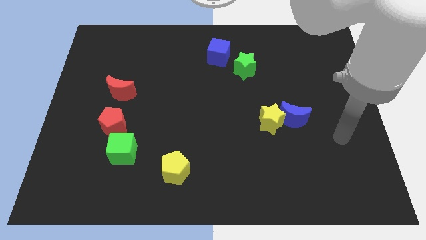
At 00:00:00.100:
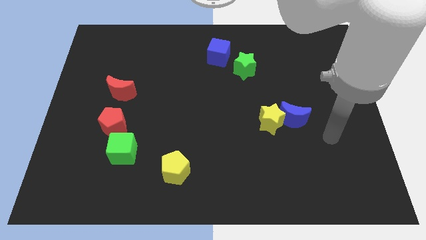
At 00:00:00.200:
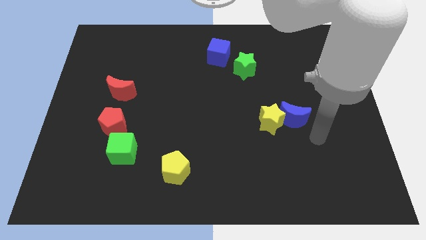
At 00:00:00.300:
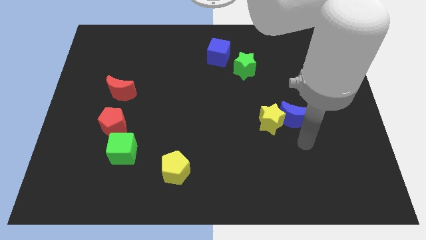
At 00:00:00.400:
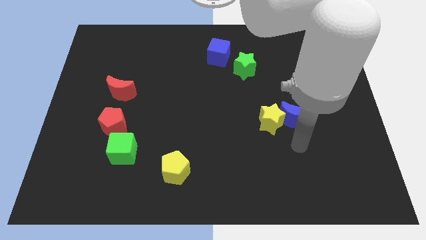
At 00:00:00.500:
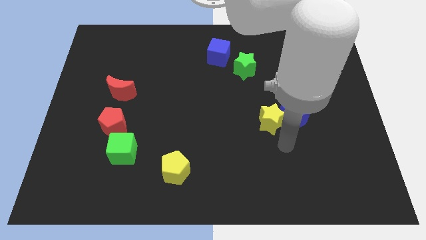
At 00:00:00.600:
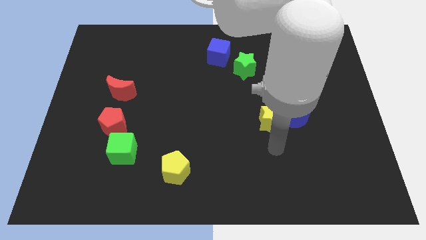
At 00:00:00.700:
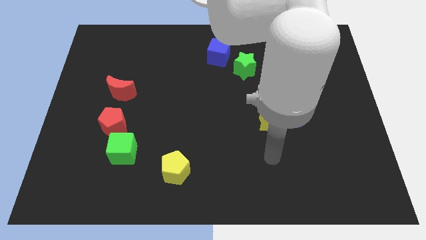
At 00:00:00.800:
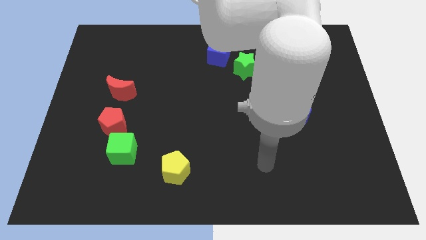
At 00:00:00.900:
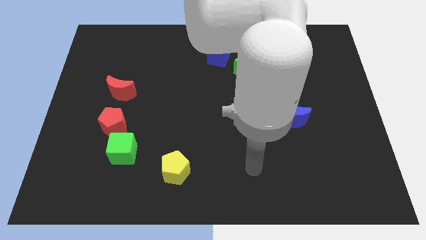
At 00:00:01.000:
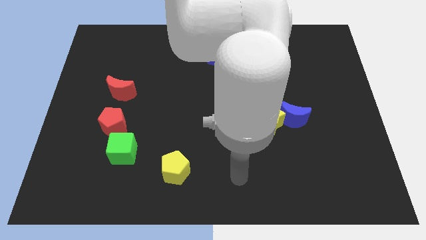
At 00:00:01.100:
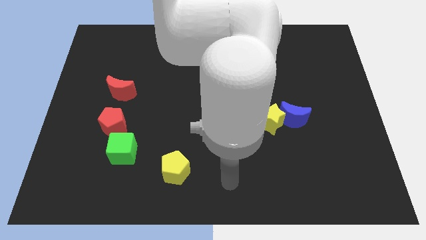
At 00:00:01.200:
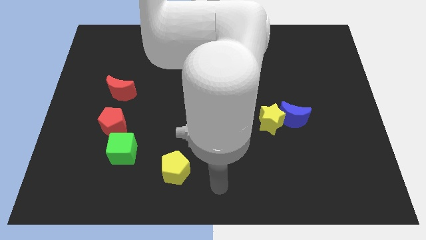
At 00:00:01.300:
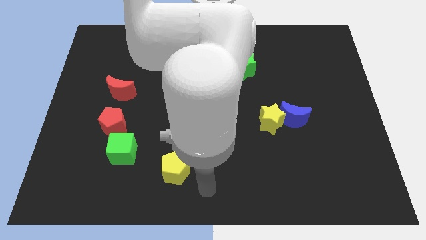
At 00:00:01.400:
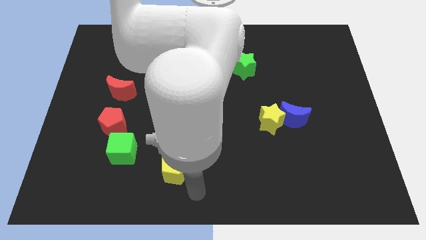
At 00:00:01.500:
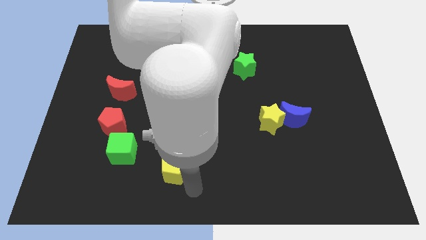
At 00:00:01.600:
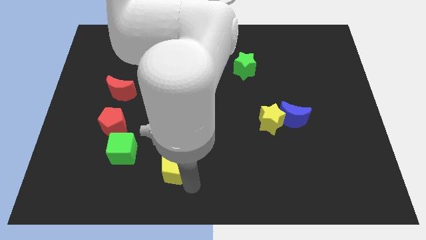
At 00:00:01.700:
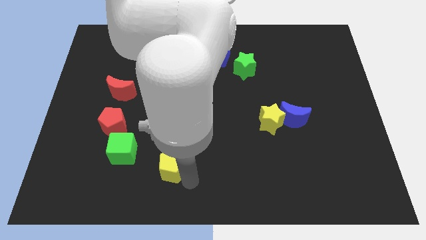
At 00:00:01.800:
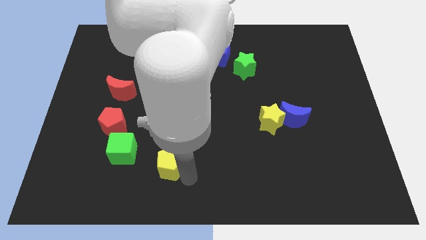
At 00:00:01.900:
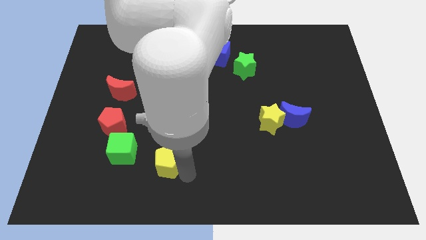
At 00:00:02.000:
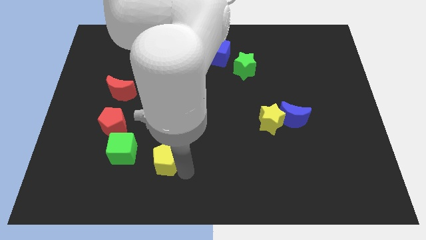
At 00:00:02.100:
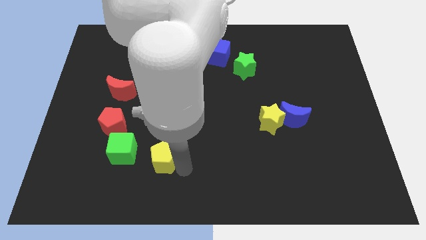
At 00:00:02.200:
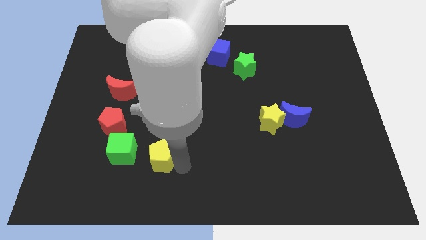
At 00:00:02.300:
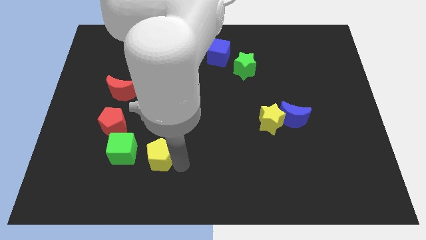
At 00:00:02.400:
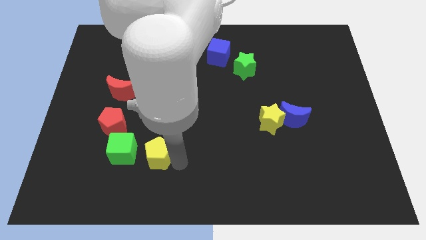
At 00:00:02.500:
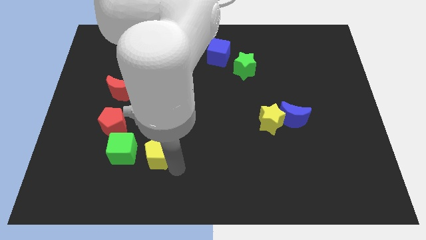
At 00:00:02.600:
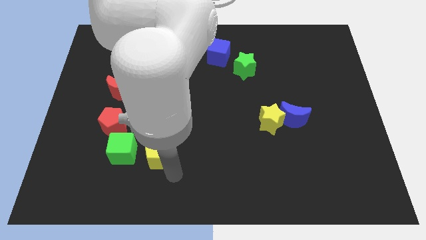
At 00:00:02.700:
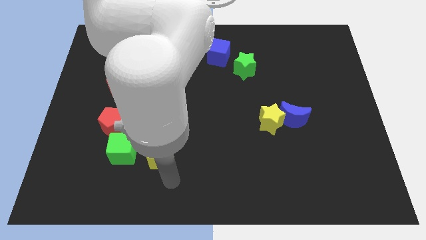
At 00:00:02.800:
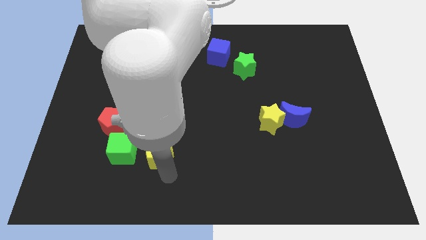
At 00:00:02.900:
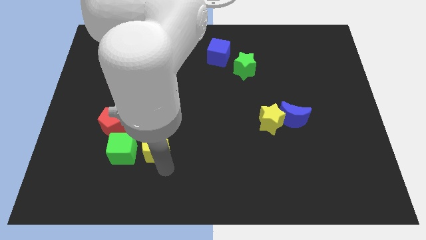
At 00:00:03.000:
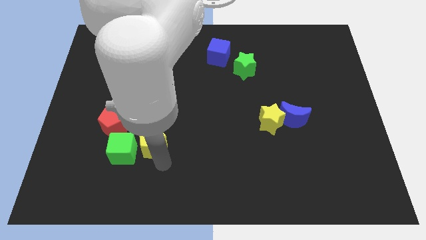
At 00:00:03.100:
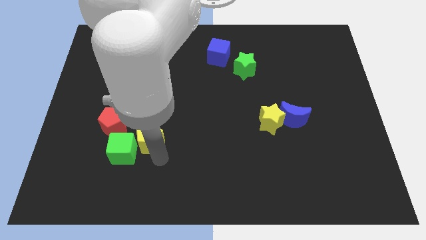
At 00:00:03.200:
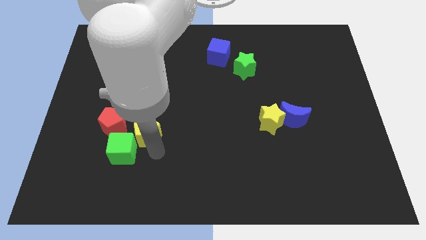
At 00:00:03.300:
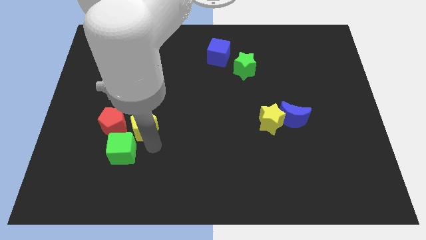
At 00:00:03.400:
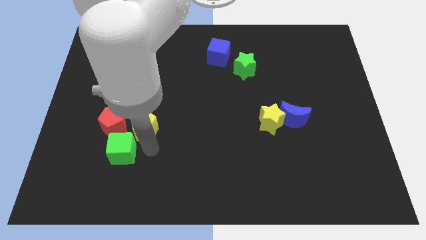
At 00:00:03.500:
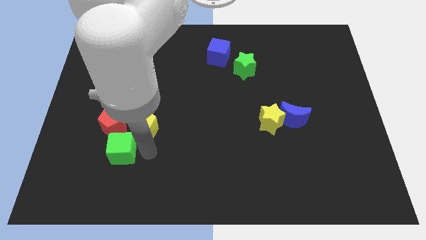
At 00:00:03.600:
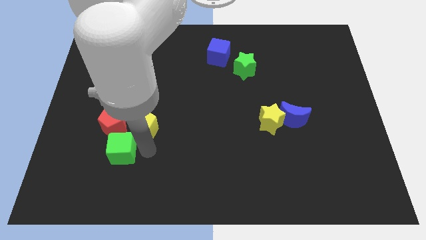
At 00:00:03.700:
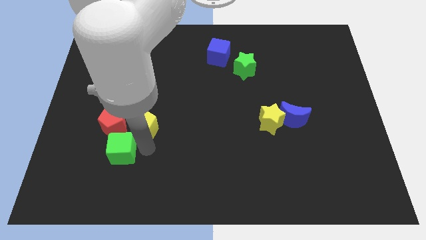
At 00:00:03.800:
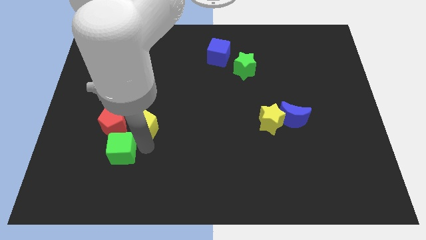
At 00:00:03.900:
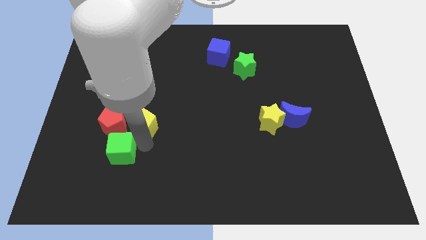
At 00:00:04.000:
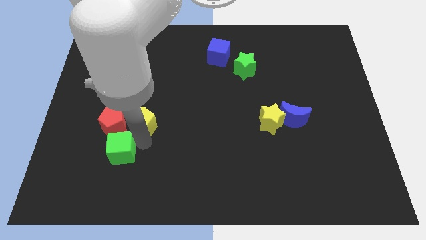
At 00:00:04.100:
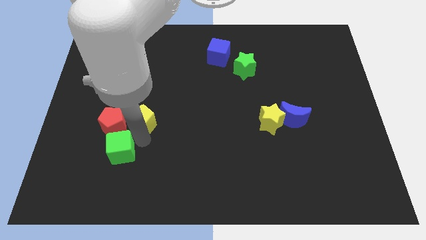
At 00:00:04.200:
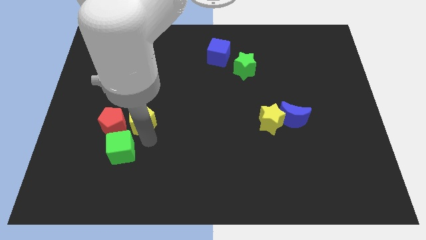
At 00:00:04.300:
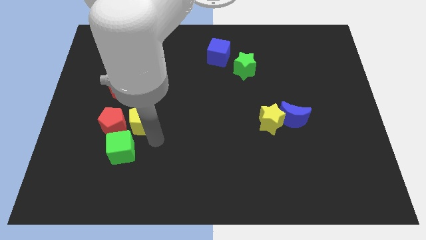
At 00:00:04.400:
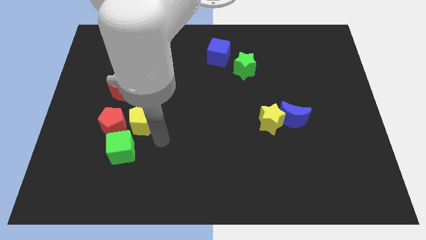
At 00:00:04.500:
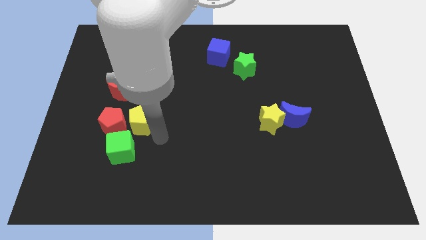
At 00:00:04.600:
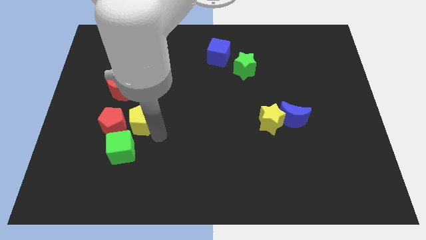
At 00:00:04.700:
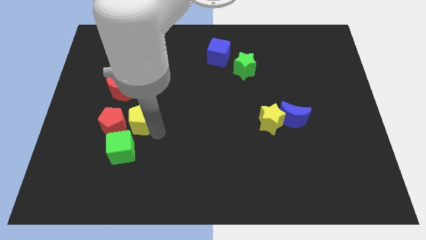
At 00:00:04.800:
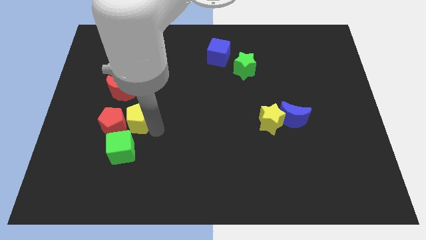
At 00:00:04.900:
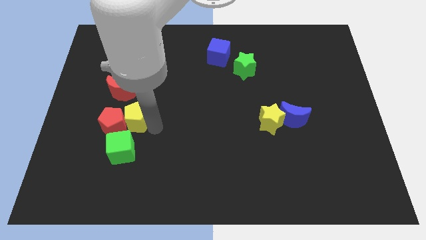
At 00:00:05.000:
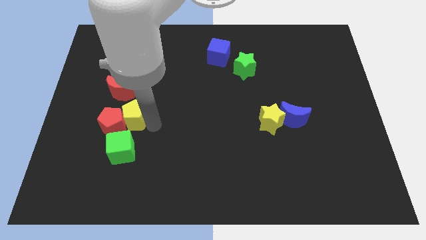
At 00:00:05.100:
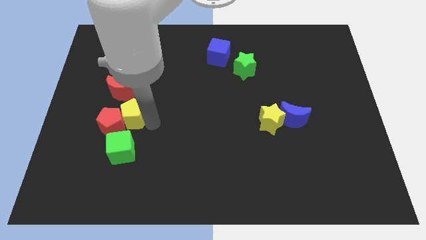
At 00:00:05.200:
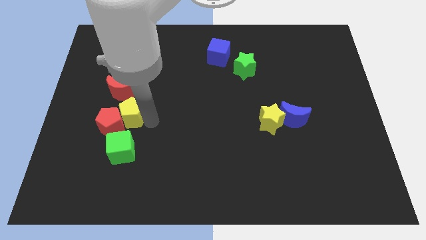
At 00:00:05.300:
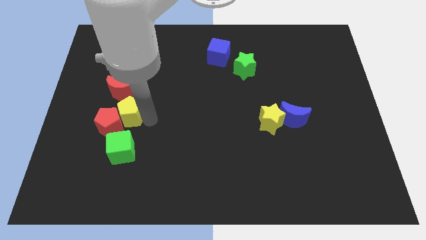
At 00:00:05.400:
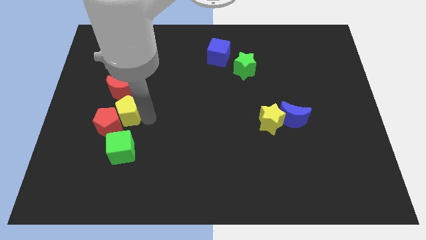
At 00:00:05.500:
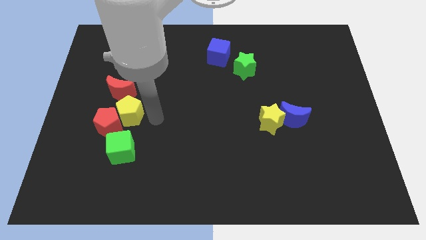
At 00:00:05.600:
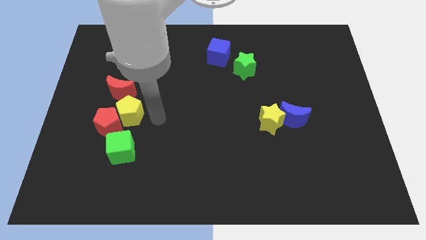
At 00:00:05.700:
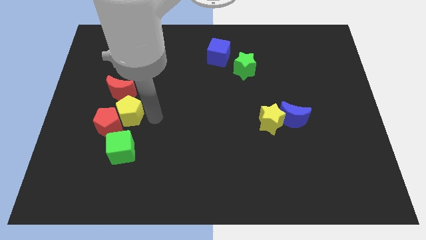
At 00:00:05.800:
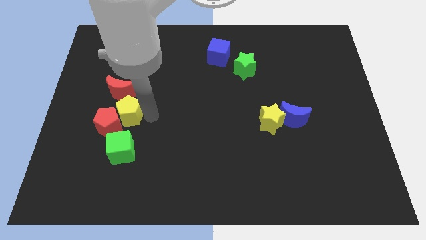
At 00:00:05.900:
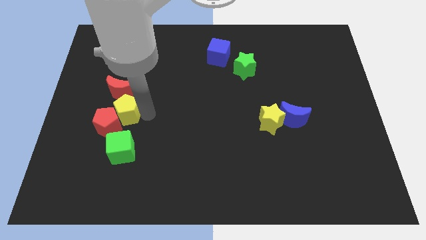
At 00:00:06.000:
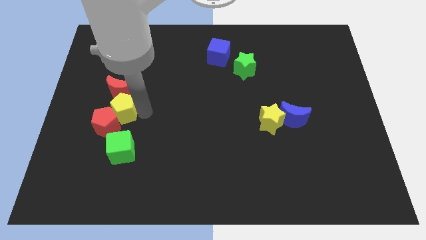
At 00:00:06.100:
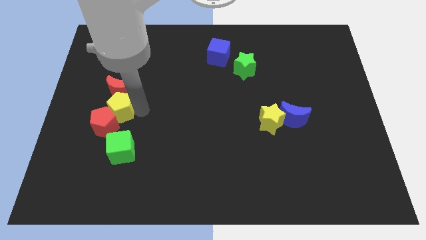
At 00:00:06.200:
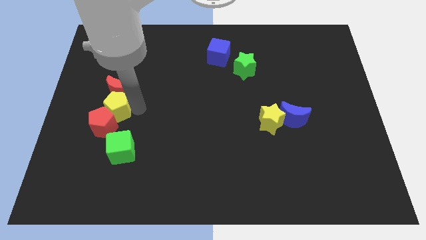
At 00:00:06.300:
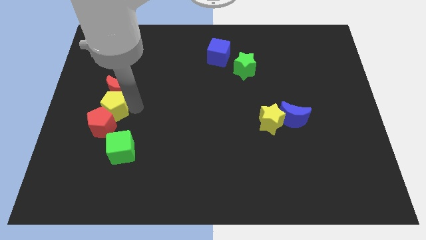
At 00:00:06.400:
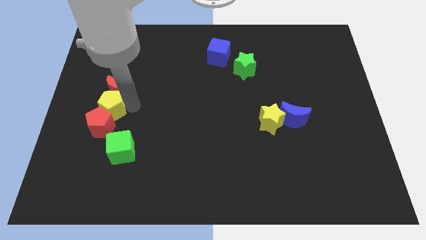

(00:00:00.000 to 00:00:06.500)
slide the yellow pentagon diagonally up and to the left of the red pentagon

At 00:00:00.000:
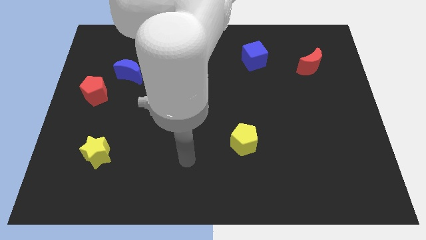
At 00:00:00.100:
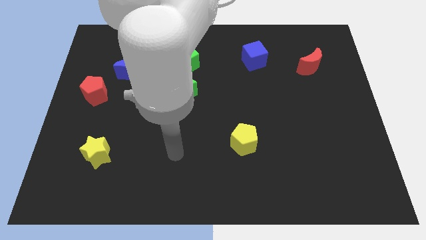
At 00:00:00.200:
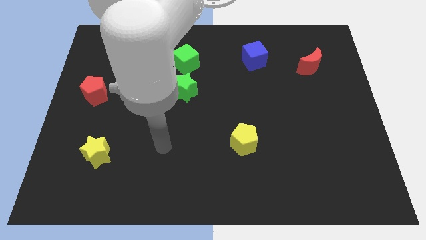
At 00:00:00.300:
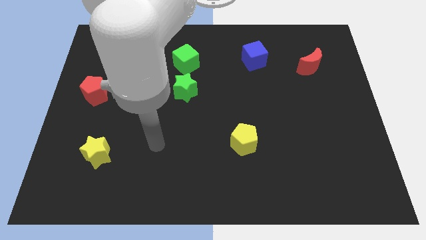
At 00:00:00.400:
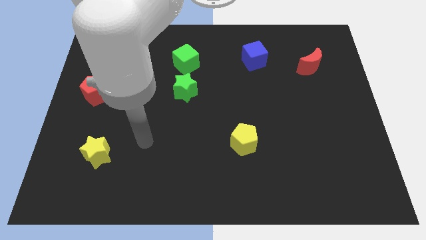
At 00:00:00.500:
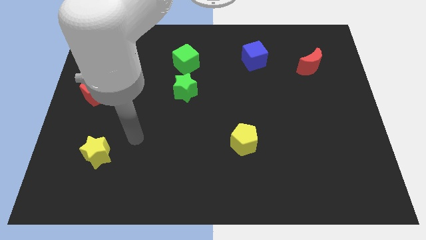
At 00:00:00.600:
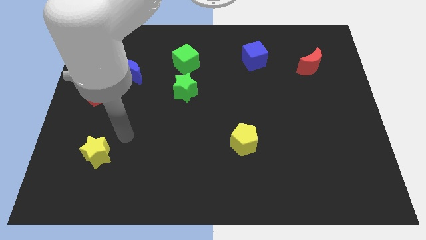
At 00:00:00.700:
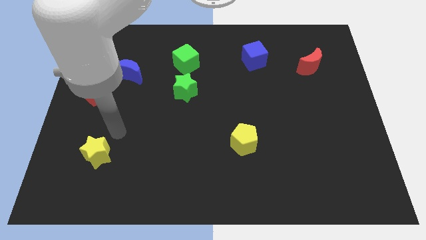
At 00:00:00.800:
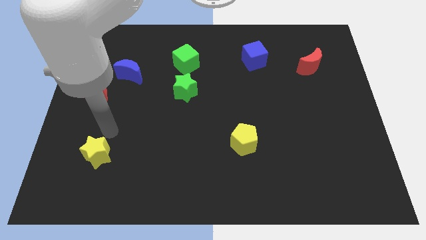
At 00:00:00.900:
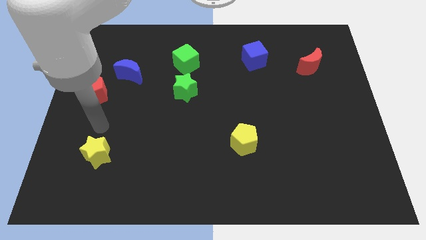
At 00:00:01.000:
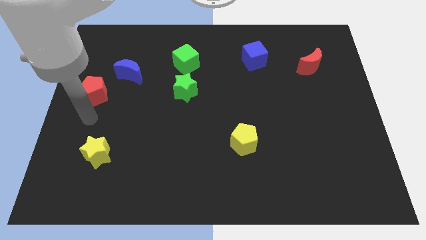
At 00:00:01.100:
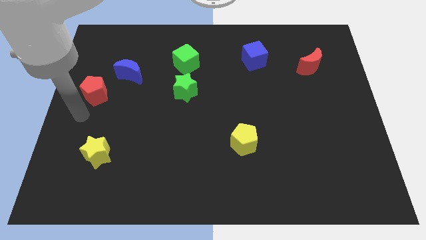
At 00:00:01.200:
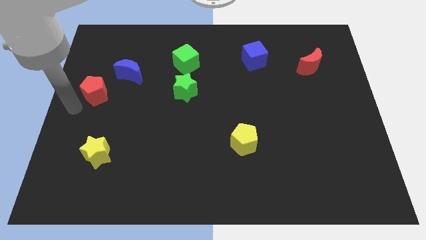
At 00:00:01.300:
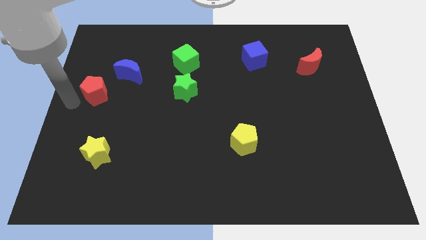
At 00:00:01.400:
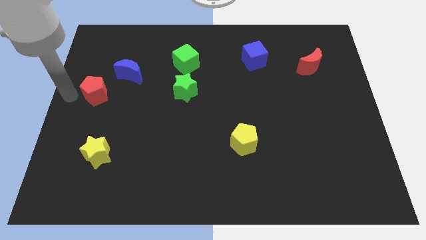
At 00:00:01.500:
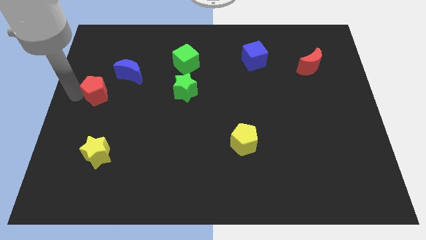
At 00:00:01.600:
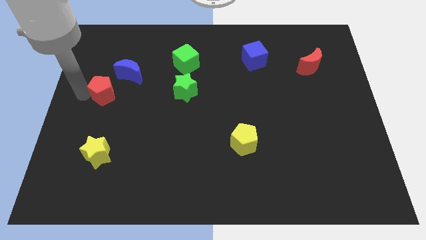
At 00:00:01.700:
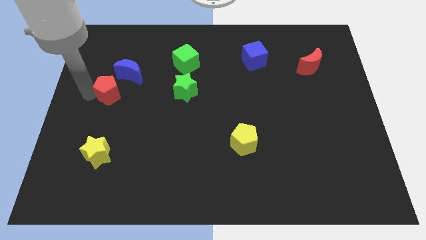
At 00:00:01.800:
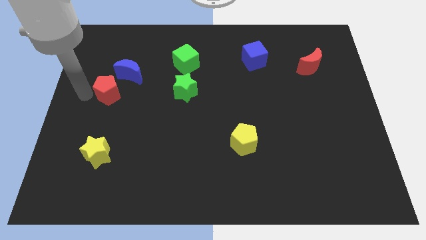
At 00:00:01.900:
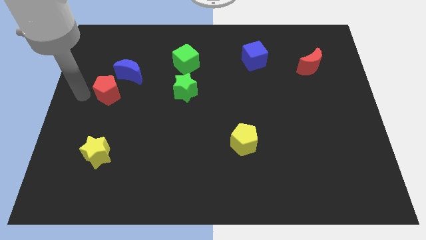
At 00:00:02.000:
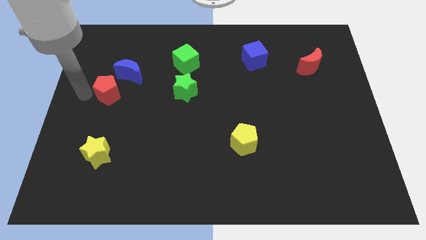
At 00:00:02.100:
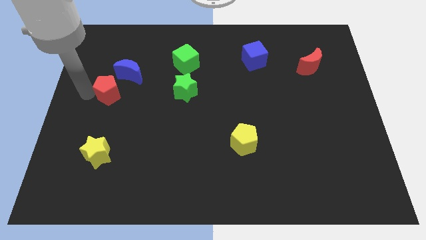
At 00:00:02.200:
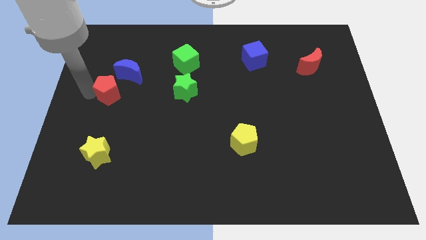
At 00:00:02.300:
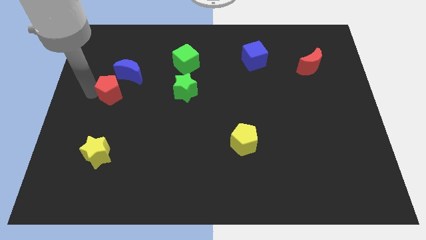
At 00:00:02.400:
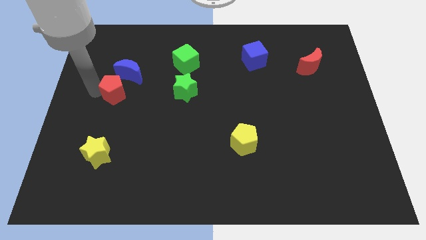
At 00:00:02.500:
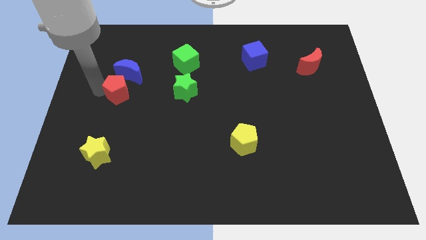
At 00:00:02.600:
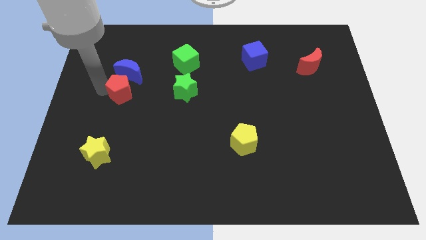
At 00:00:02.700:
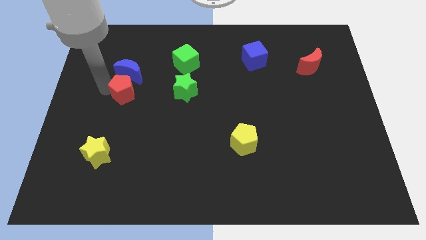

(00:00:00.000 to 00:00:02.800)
move the red pentagon diagonally down and to the right of the blue moon
